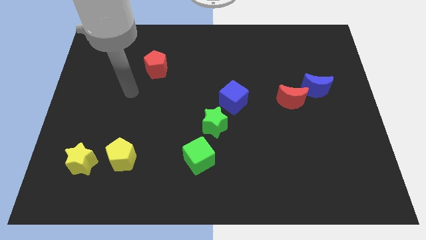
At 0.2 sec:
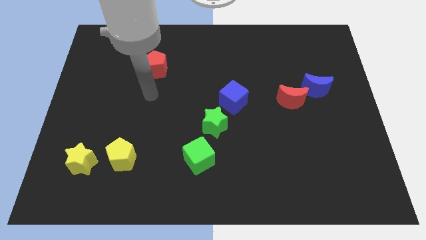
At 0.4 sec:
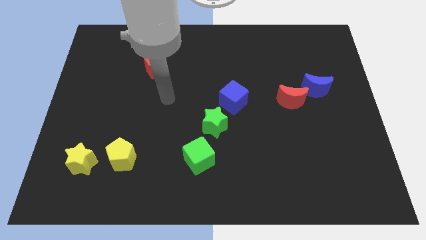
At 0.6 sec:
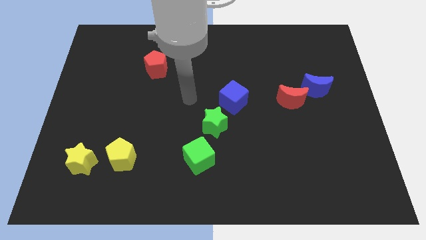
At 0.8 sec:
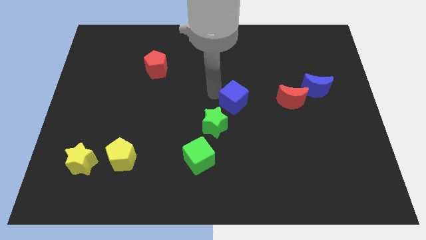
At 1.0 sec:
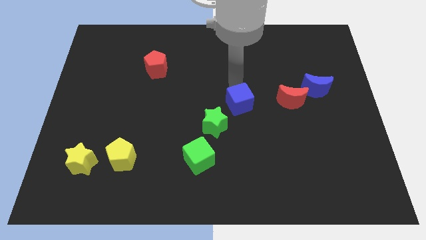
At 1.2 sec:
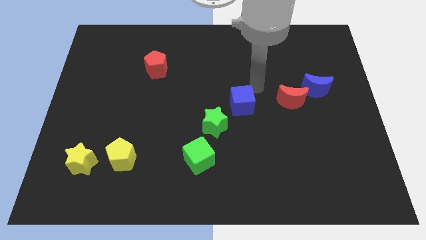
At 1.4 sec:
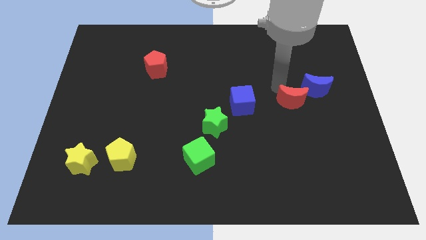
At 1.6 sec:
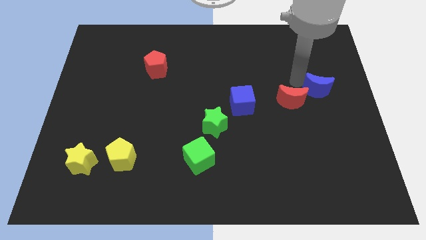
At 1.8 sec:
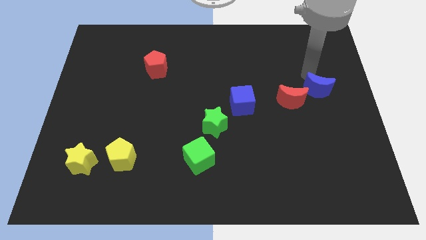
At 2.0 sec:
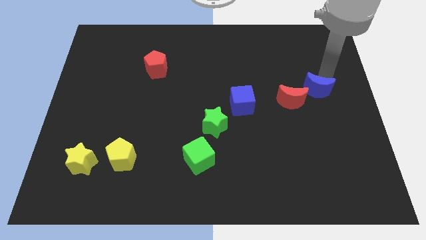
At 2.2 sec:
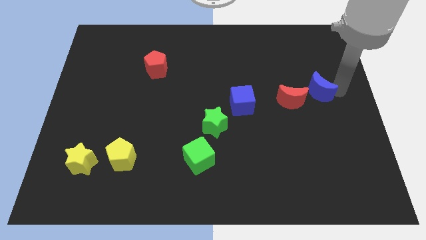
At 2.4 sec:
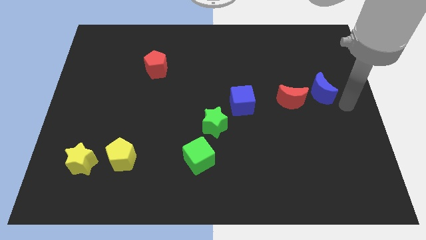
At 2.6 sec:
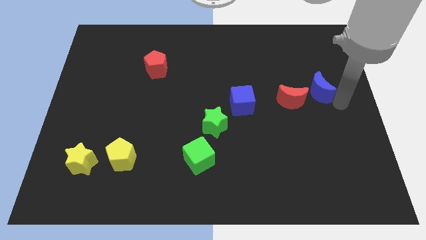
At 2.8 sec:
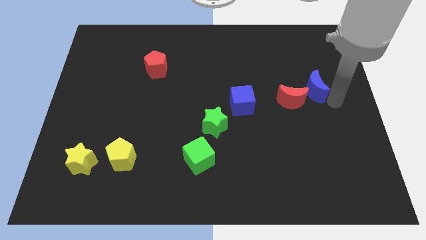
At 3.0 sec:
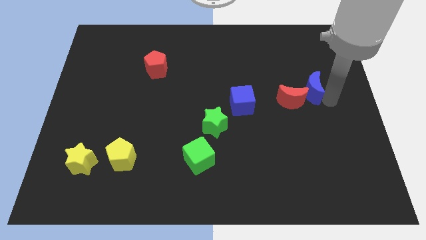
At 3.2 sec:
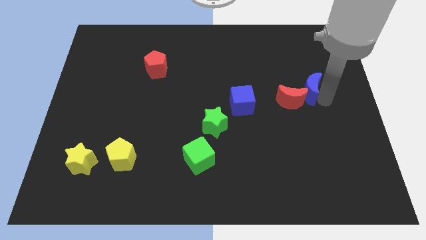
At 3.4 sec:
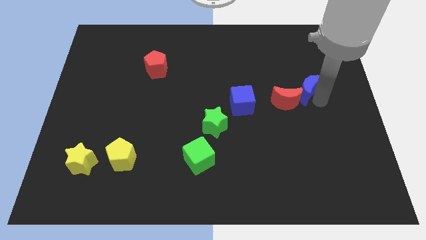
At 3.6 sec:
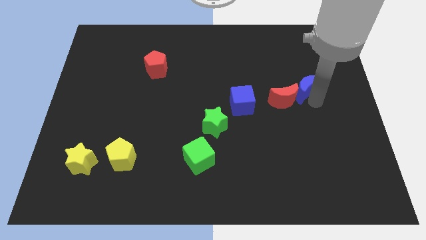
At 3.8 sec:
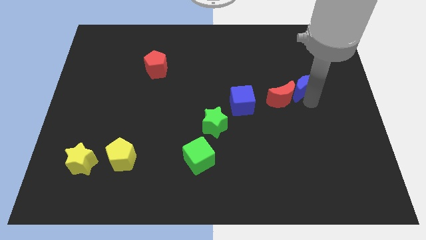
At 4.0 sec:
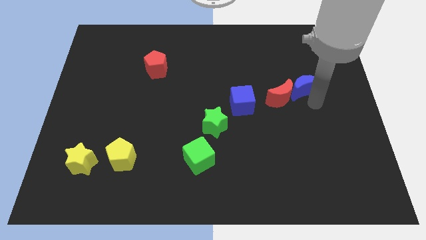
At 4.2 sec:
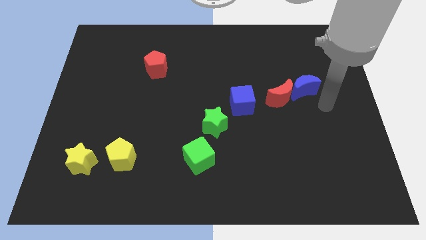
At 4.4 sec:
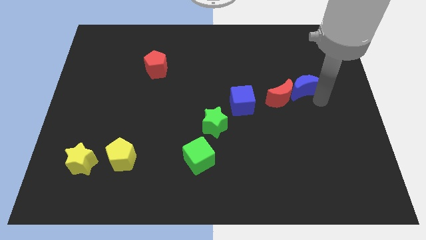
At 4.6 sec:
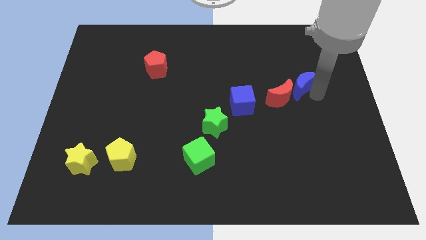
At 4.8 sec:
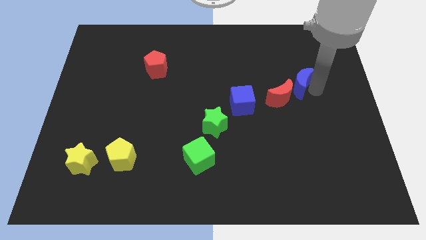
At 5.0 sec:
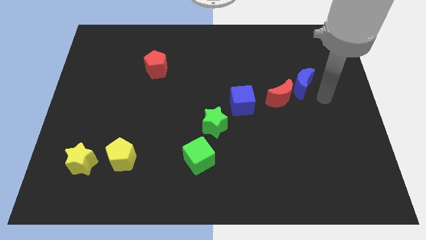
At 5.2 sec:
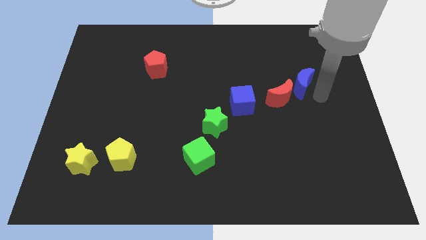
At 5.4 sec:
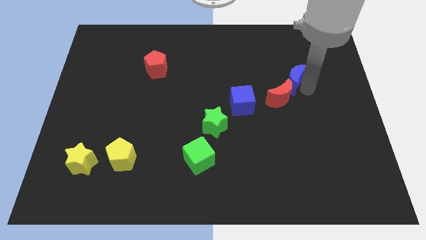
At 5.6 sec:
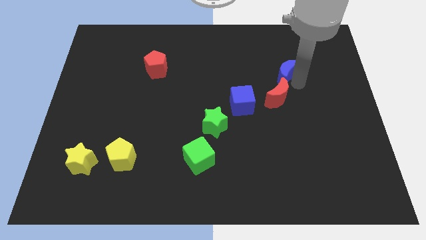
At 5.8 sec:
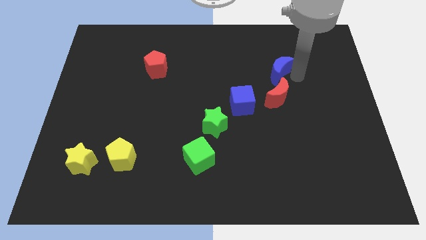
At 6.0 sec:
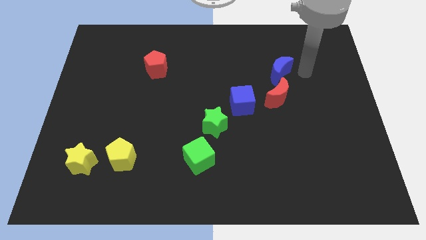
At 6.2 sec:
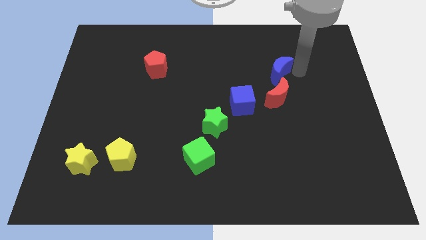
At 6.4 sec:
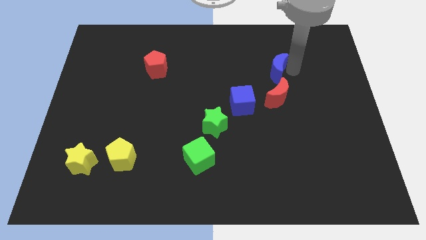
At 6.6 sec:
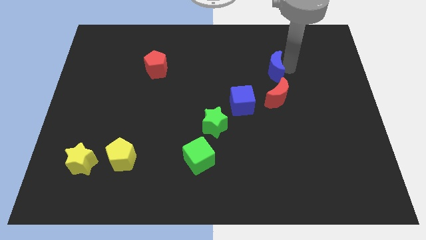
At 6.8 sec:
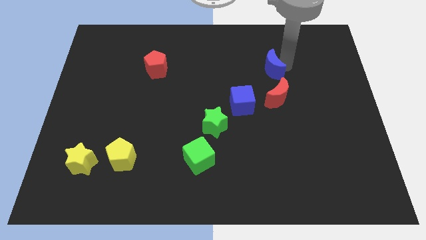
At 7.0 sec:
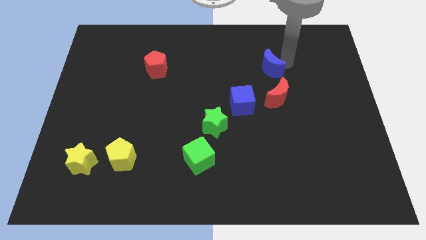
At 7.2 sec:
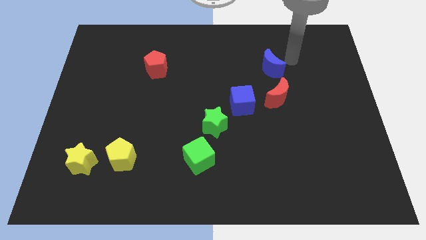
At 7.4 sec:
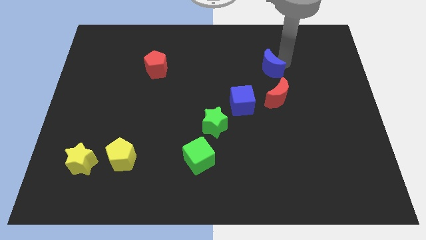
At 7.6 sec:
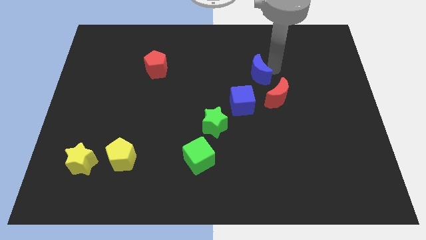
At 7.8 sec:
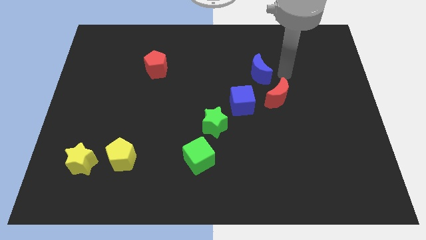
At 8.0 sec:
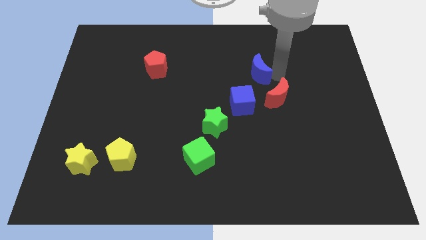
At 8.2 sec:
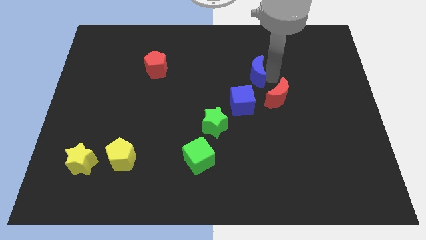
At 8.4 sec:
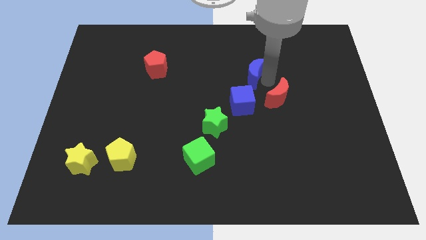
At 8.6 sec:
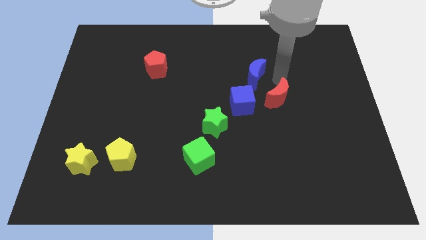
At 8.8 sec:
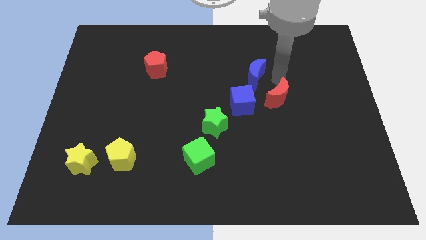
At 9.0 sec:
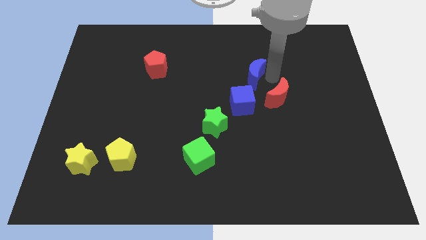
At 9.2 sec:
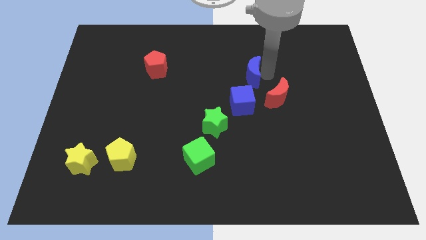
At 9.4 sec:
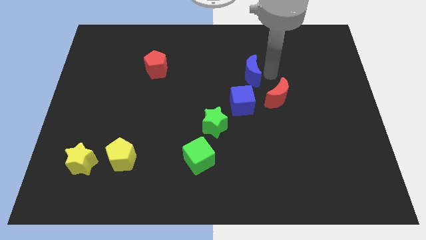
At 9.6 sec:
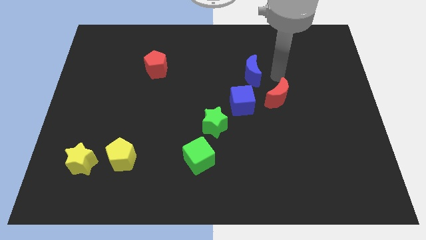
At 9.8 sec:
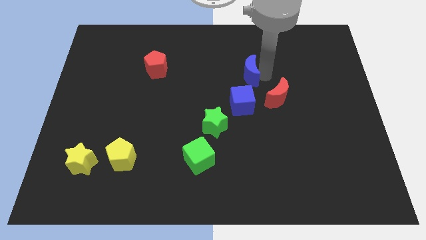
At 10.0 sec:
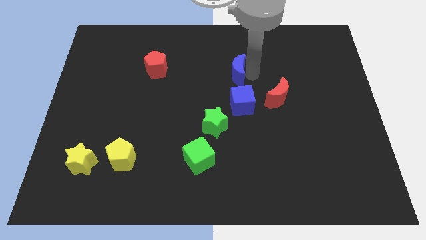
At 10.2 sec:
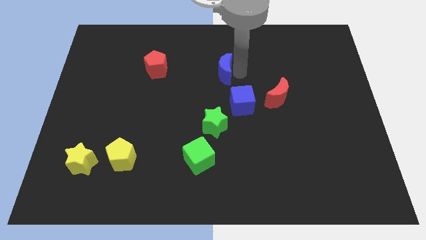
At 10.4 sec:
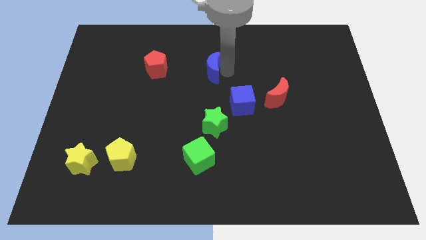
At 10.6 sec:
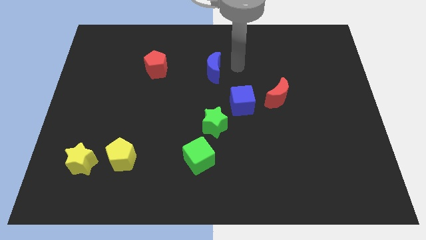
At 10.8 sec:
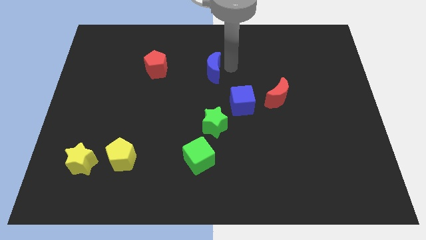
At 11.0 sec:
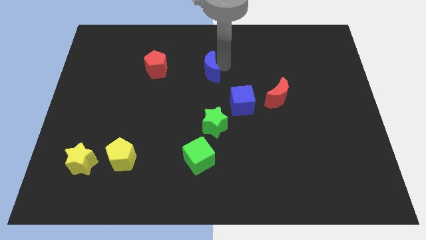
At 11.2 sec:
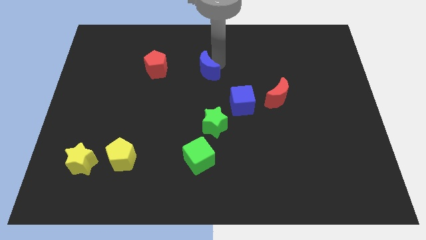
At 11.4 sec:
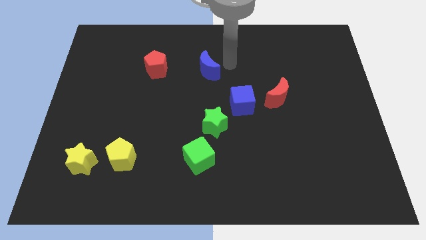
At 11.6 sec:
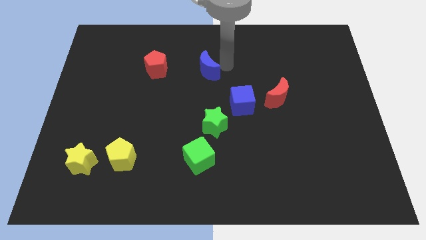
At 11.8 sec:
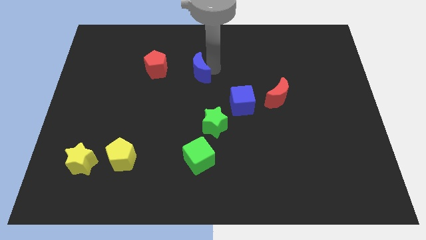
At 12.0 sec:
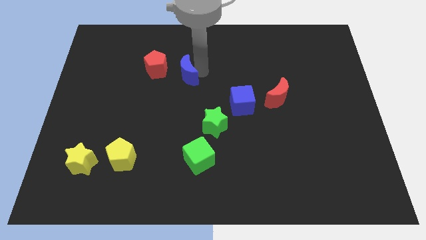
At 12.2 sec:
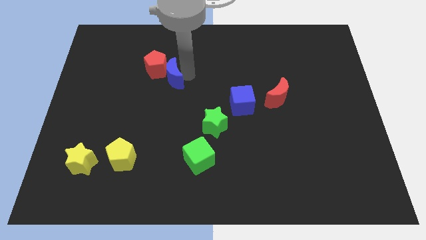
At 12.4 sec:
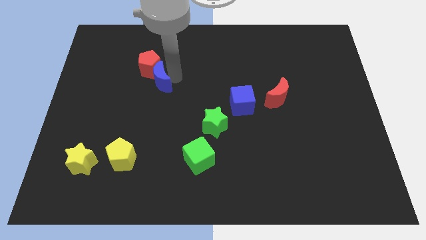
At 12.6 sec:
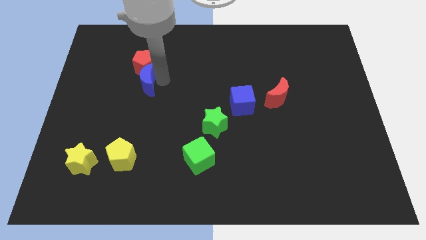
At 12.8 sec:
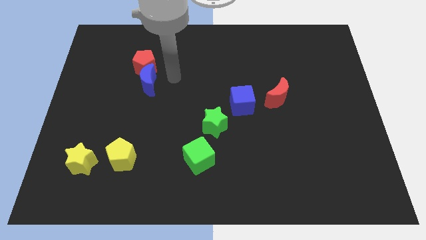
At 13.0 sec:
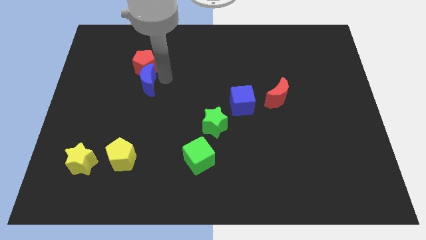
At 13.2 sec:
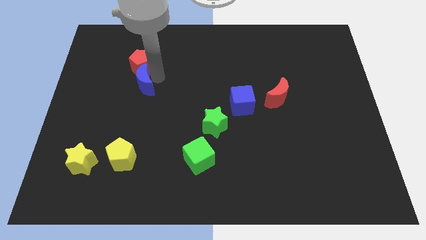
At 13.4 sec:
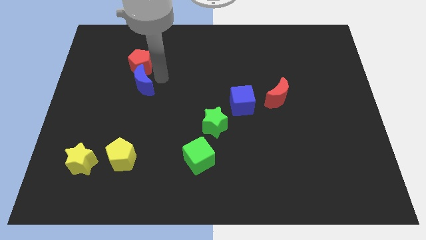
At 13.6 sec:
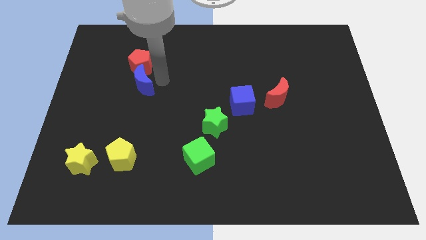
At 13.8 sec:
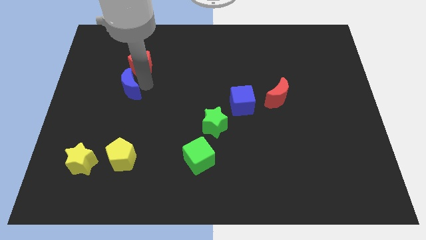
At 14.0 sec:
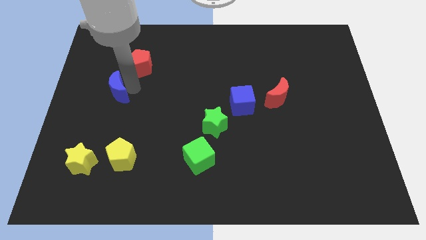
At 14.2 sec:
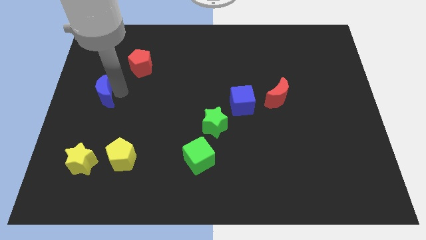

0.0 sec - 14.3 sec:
move the blue moon to the center left
